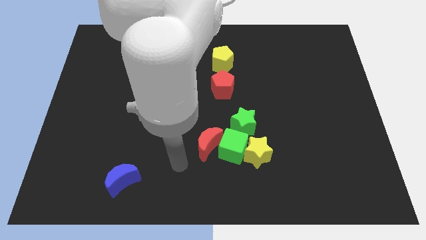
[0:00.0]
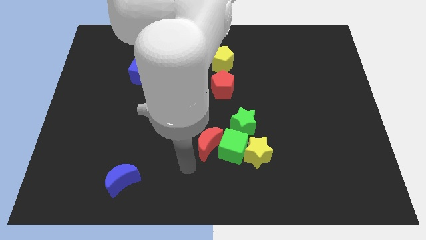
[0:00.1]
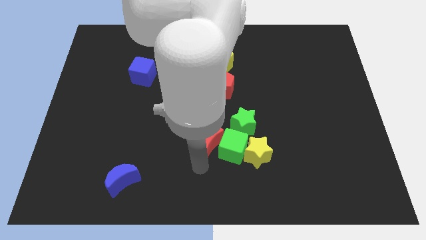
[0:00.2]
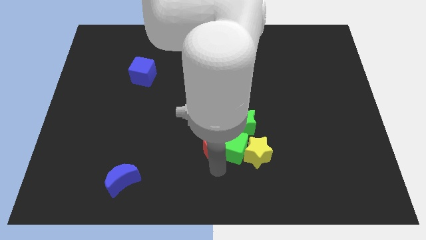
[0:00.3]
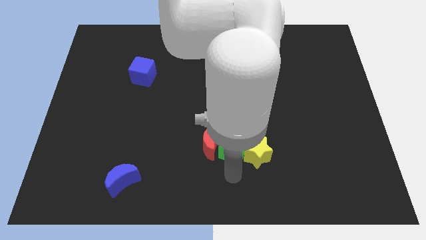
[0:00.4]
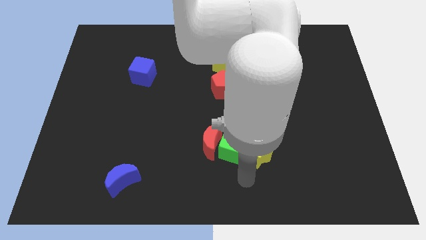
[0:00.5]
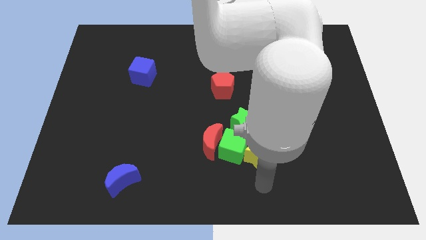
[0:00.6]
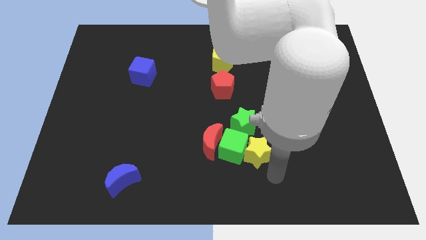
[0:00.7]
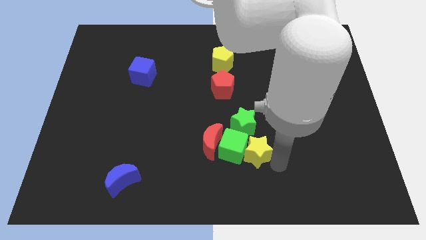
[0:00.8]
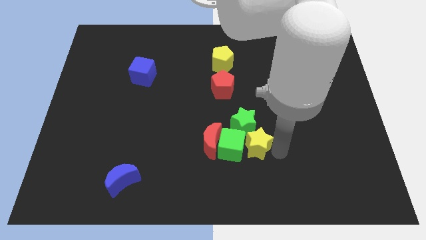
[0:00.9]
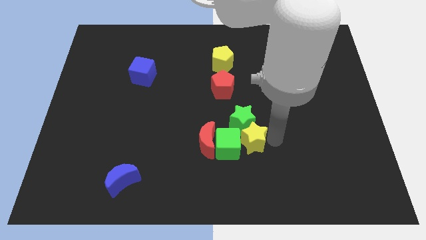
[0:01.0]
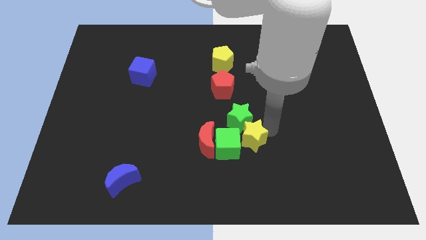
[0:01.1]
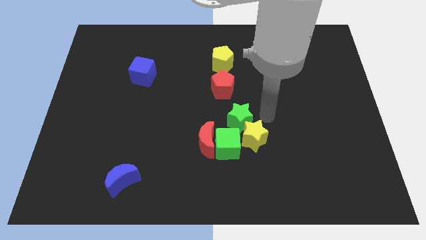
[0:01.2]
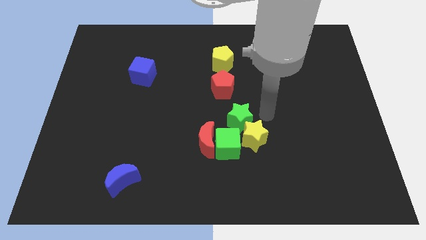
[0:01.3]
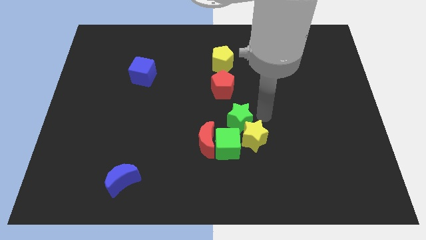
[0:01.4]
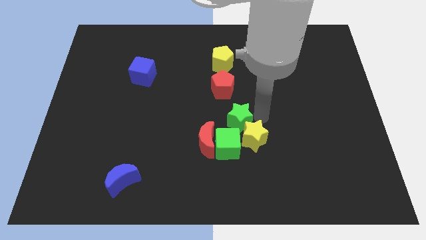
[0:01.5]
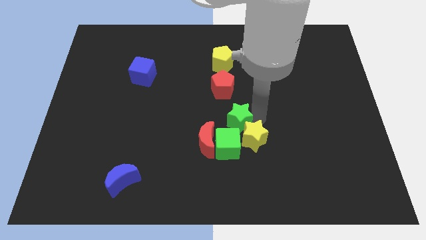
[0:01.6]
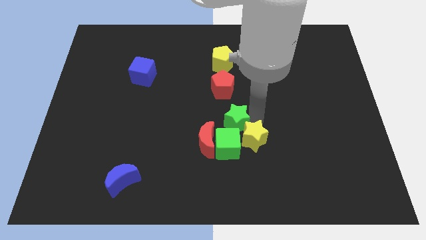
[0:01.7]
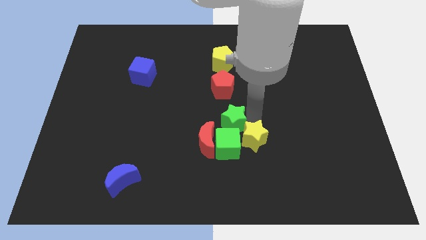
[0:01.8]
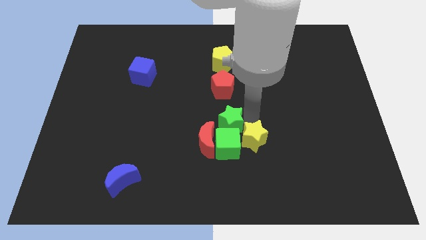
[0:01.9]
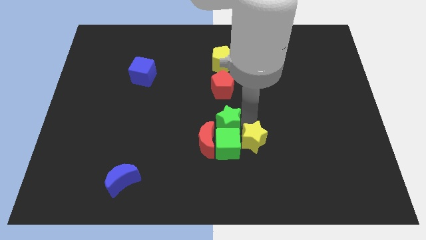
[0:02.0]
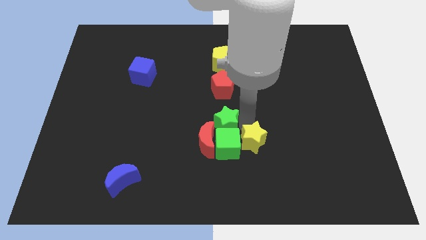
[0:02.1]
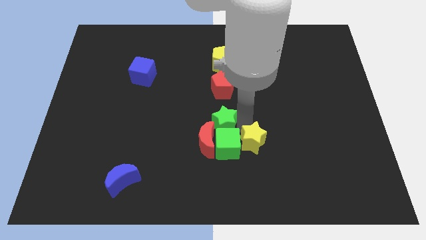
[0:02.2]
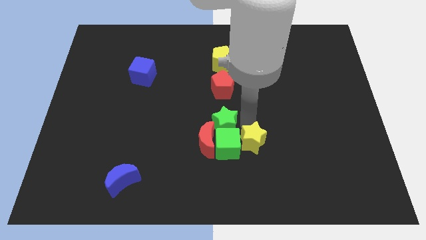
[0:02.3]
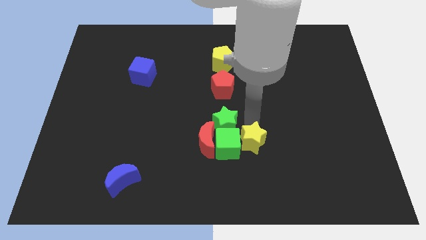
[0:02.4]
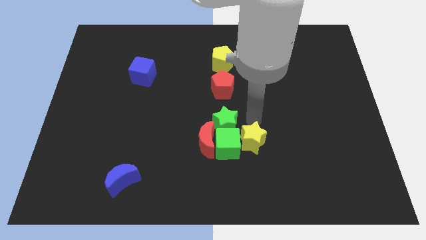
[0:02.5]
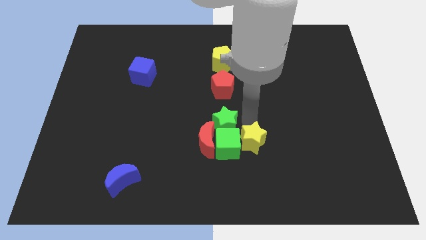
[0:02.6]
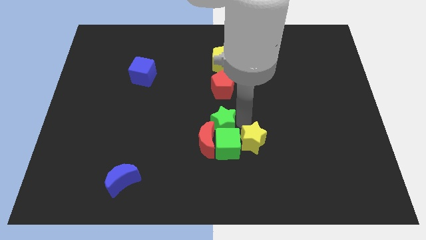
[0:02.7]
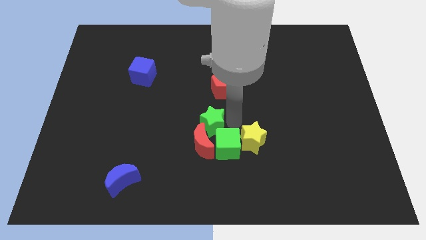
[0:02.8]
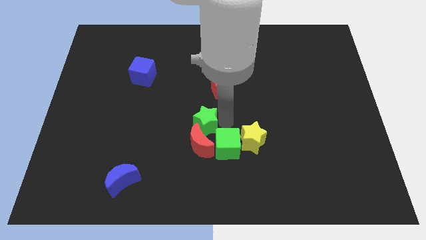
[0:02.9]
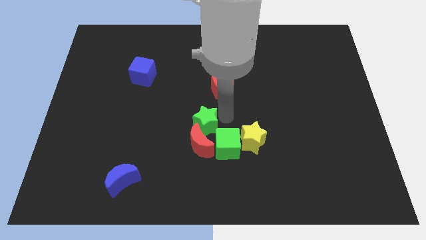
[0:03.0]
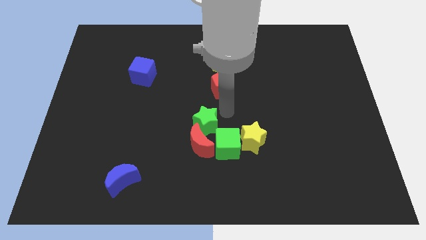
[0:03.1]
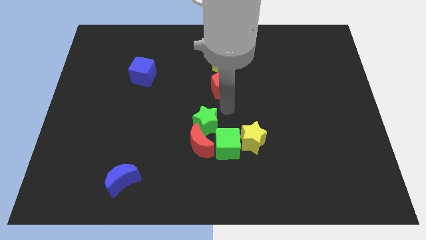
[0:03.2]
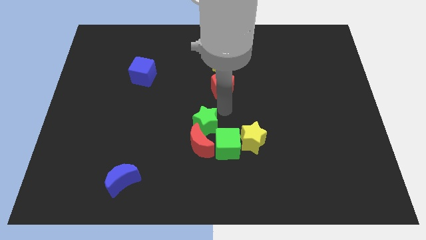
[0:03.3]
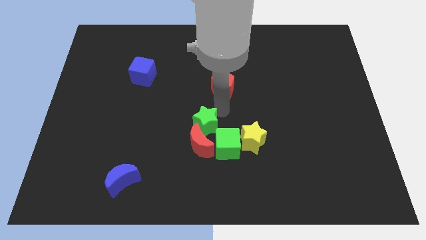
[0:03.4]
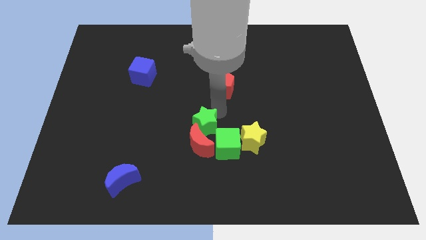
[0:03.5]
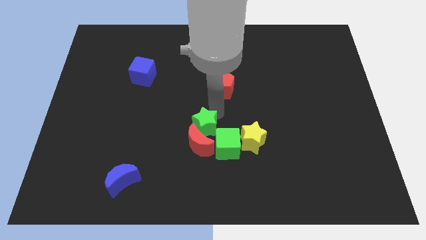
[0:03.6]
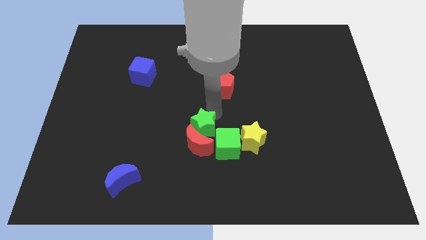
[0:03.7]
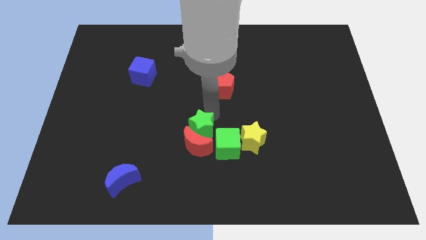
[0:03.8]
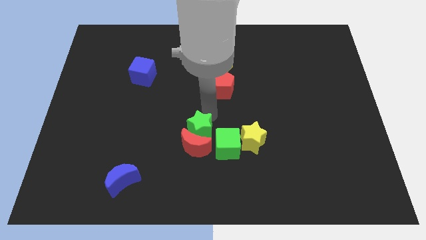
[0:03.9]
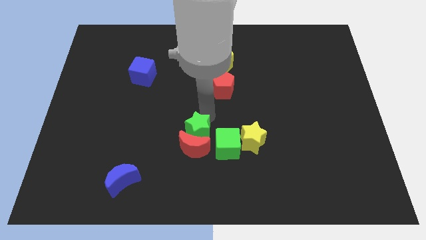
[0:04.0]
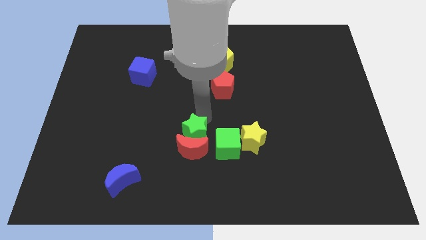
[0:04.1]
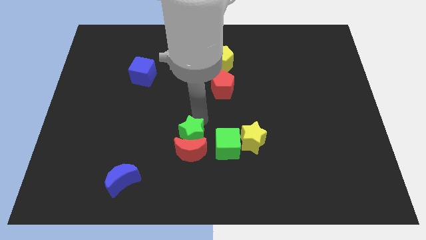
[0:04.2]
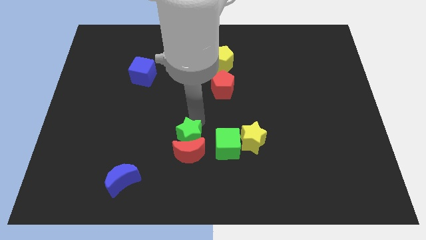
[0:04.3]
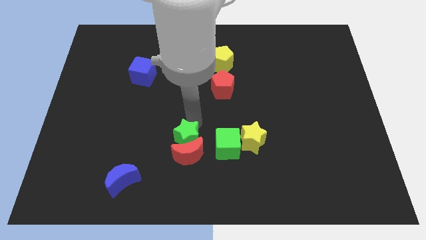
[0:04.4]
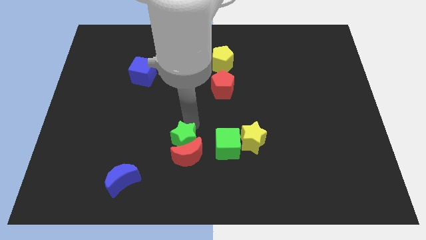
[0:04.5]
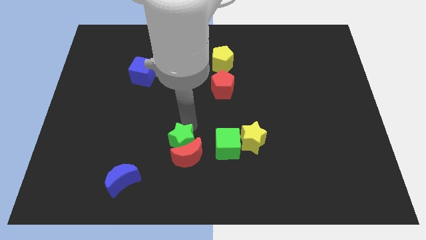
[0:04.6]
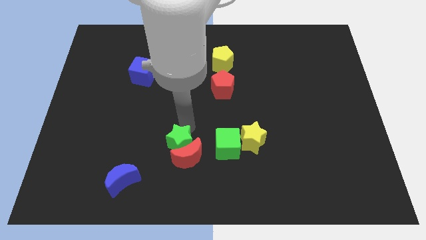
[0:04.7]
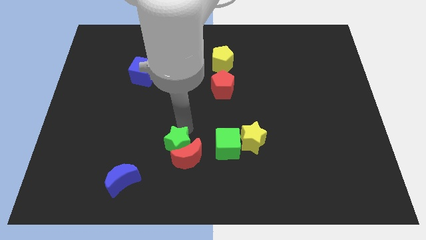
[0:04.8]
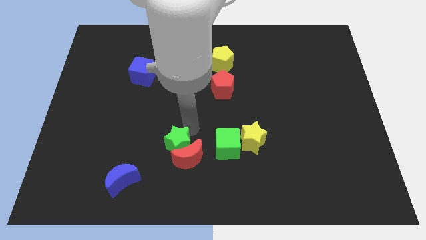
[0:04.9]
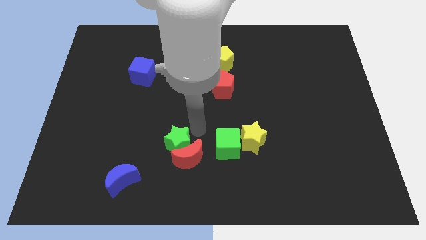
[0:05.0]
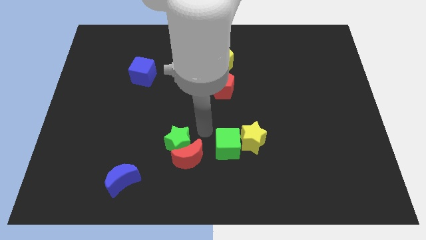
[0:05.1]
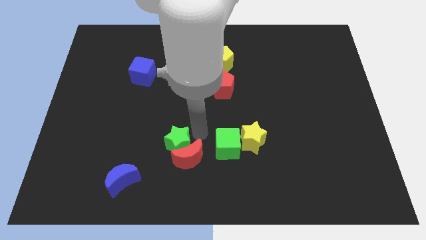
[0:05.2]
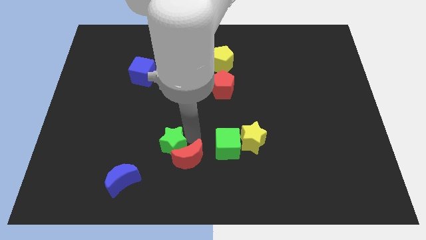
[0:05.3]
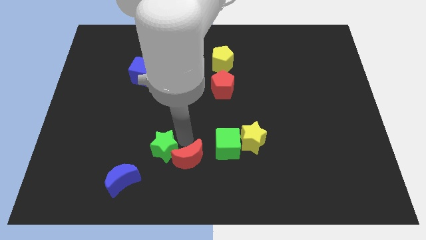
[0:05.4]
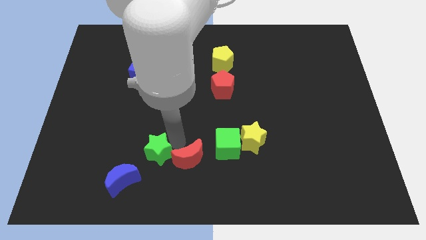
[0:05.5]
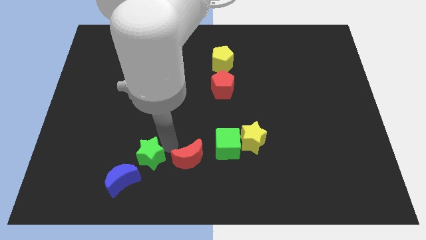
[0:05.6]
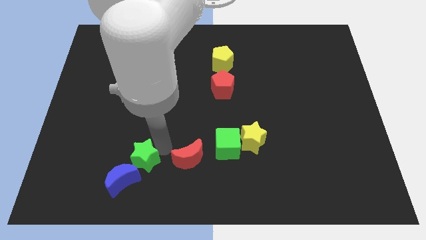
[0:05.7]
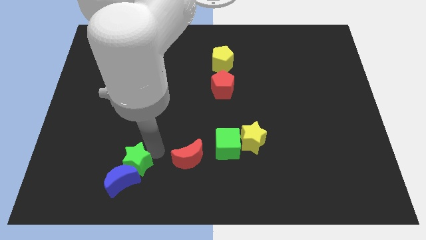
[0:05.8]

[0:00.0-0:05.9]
move the green star next to the blue moon

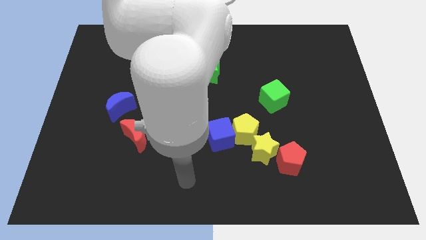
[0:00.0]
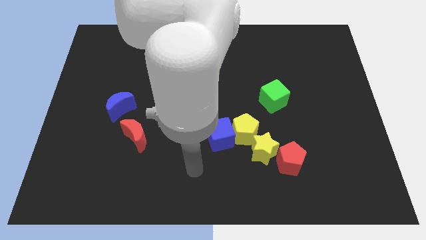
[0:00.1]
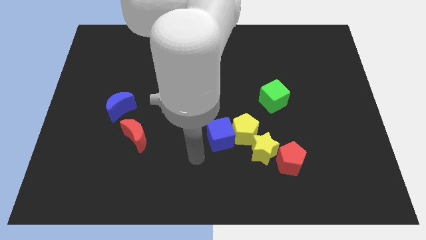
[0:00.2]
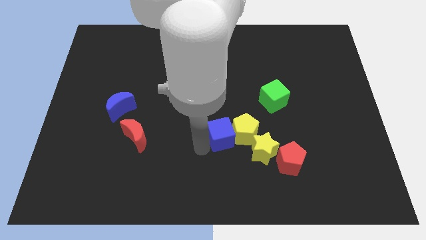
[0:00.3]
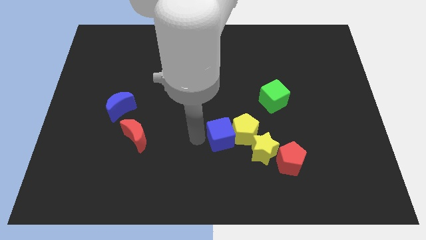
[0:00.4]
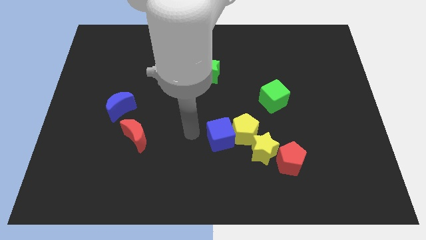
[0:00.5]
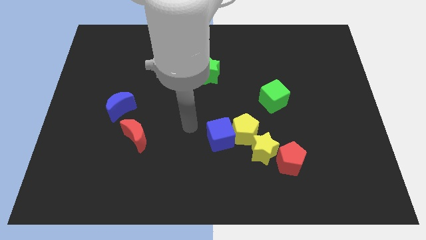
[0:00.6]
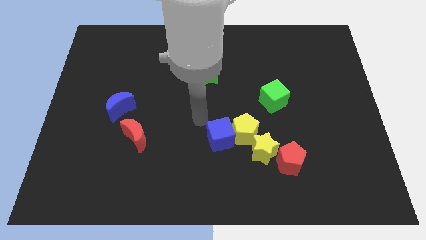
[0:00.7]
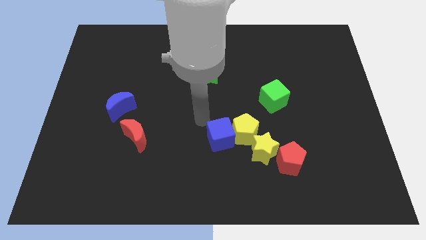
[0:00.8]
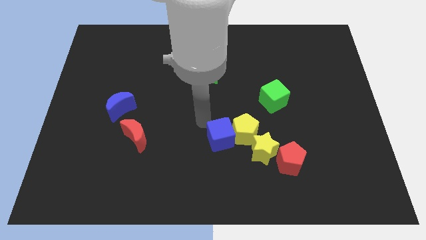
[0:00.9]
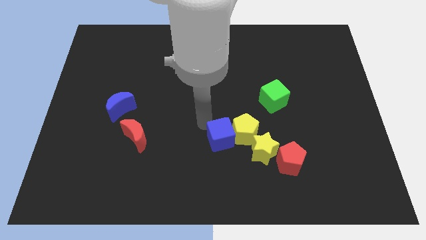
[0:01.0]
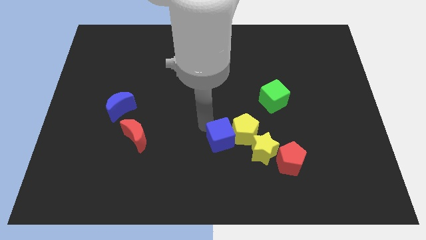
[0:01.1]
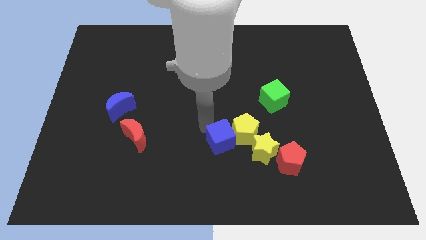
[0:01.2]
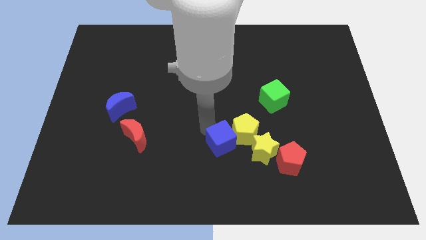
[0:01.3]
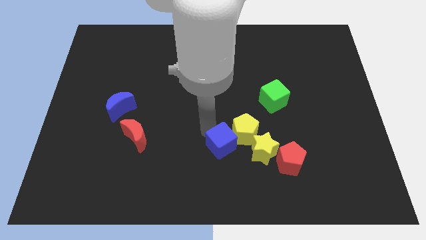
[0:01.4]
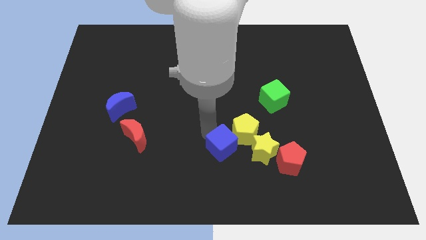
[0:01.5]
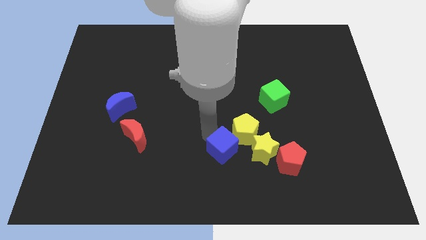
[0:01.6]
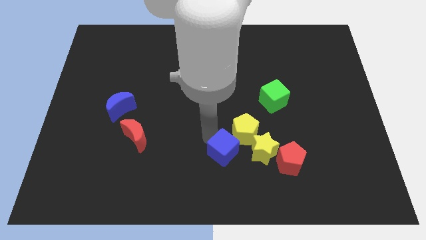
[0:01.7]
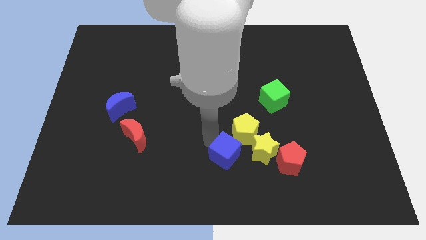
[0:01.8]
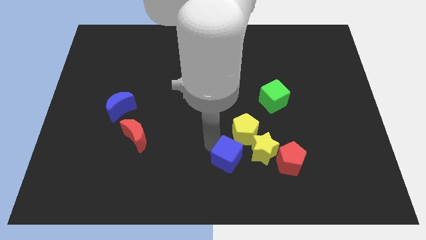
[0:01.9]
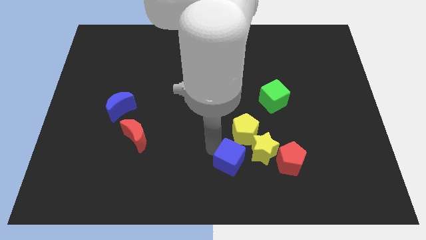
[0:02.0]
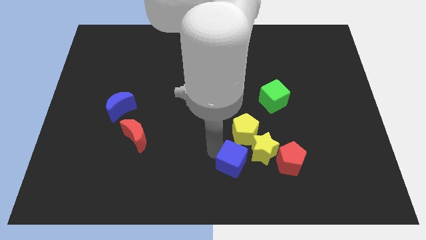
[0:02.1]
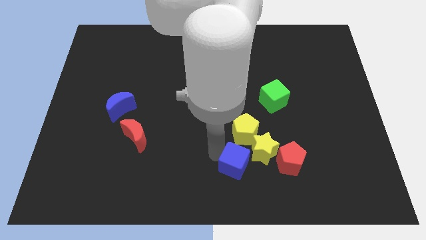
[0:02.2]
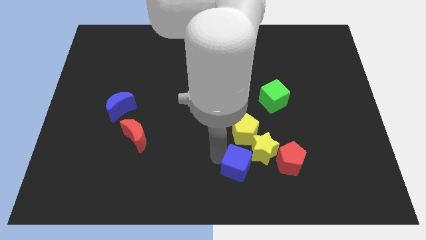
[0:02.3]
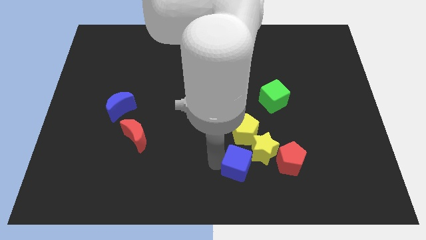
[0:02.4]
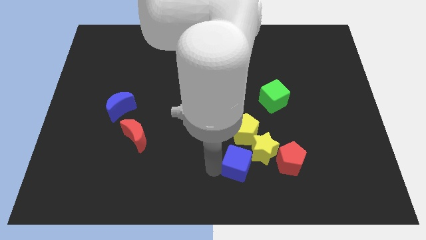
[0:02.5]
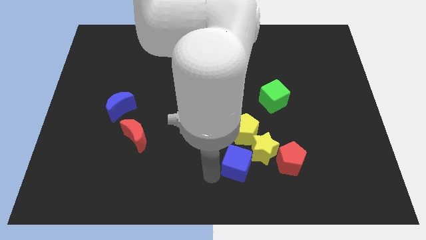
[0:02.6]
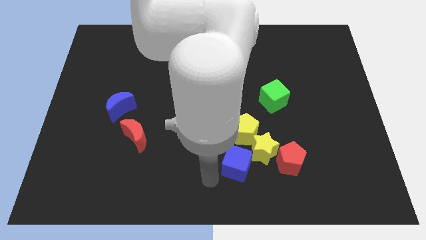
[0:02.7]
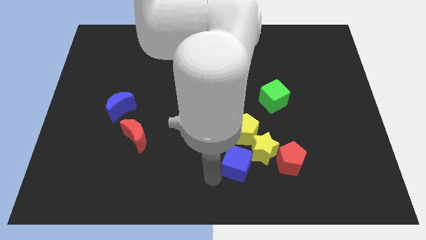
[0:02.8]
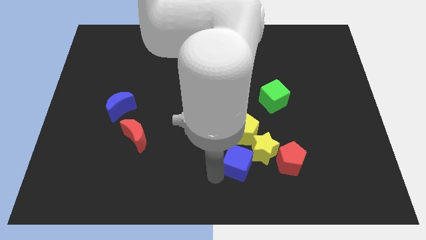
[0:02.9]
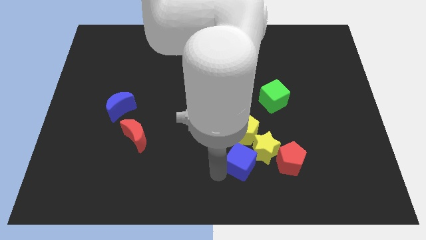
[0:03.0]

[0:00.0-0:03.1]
slide the blue cube towards the yellow star
